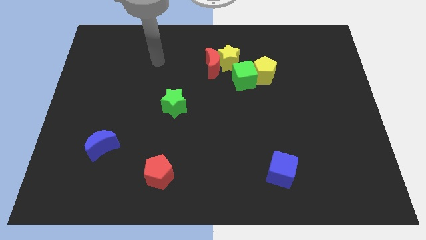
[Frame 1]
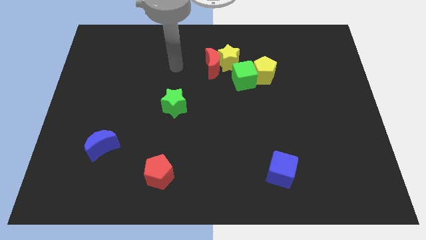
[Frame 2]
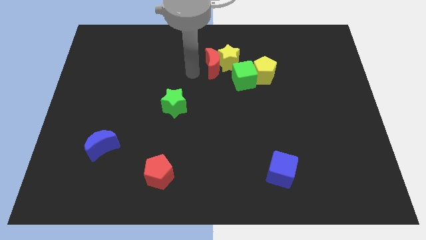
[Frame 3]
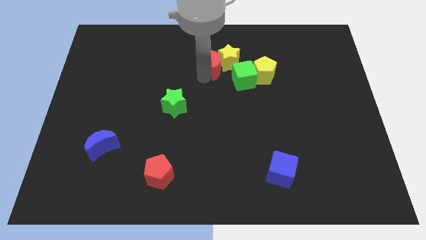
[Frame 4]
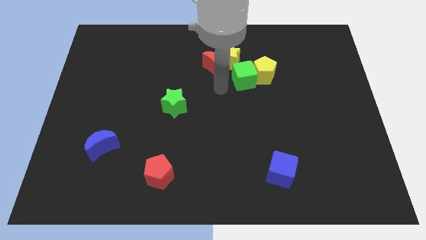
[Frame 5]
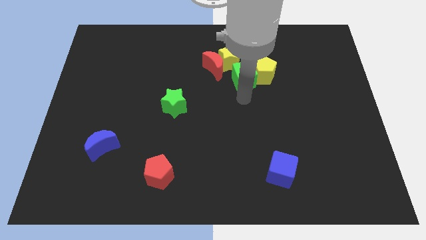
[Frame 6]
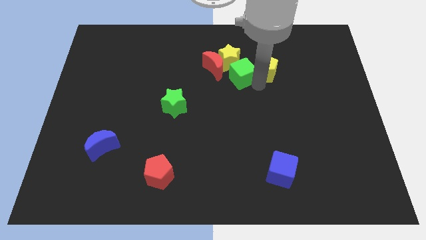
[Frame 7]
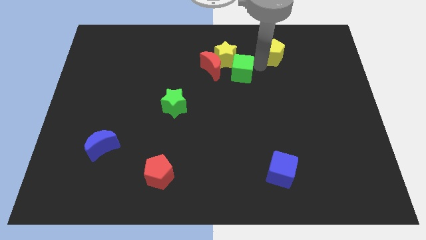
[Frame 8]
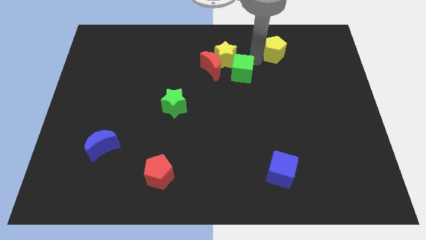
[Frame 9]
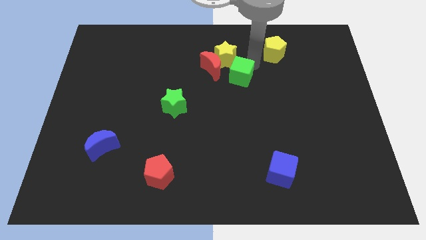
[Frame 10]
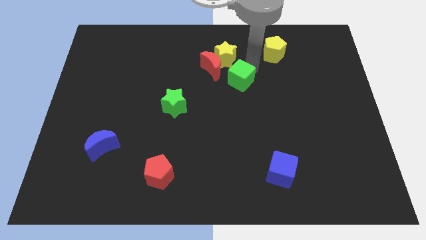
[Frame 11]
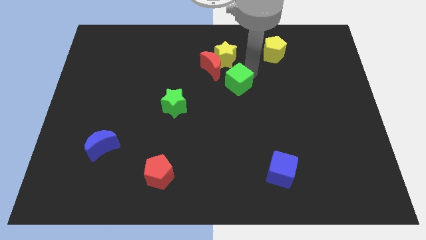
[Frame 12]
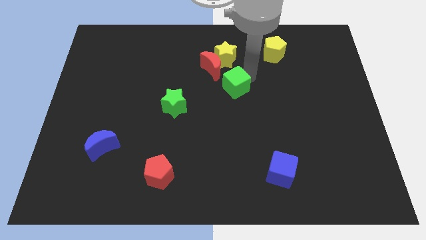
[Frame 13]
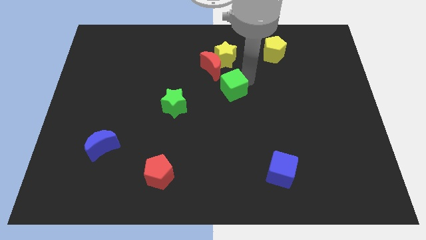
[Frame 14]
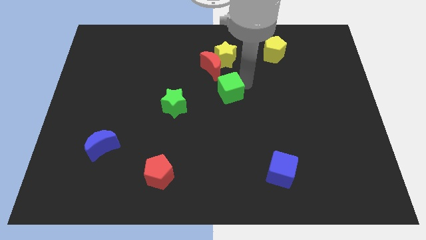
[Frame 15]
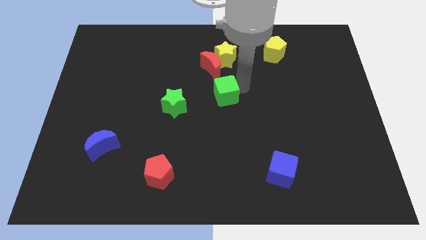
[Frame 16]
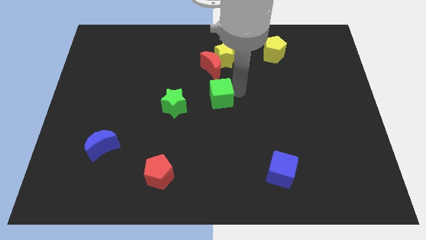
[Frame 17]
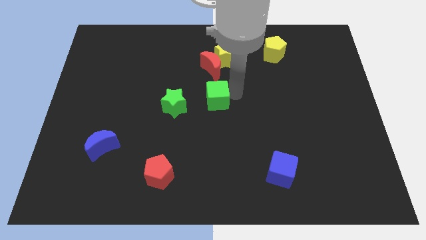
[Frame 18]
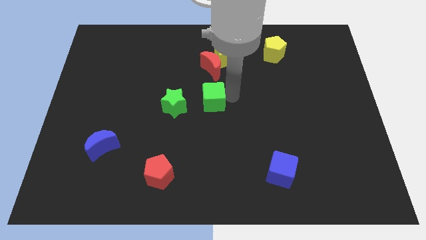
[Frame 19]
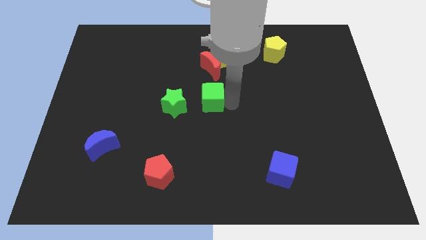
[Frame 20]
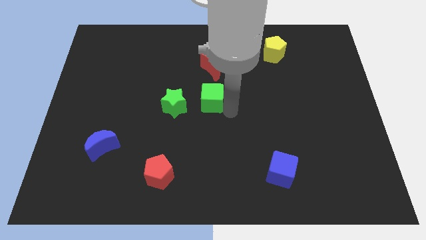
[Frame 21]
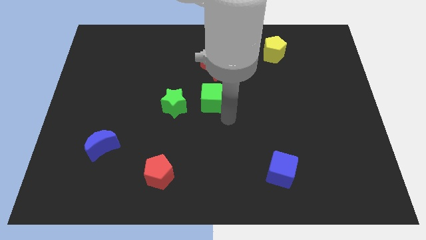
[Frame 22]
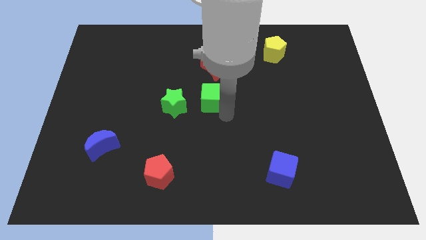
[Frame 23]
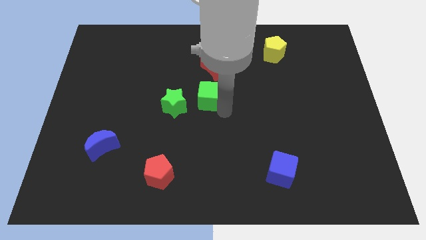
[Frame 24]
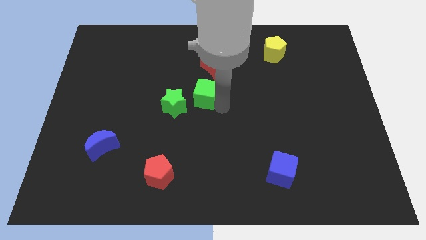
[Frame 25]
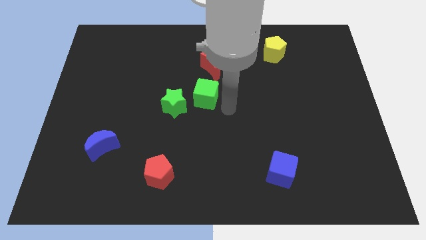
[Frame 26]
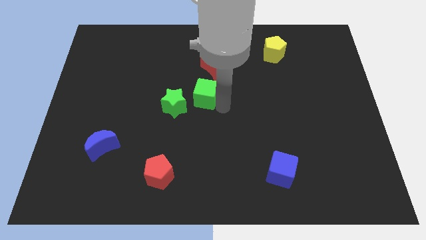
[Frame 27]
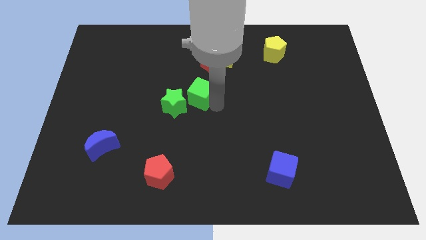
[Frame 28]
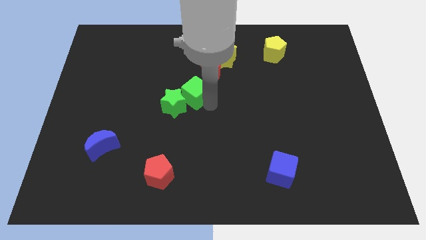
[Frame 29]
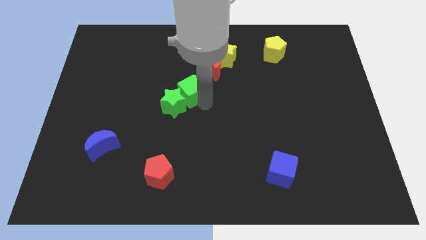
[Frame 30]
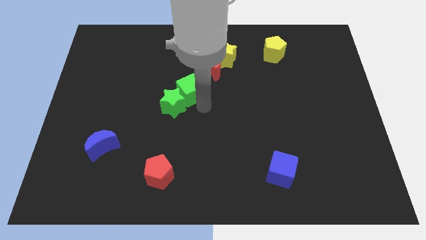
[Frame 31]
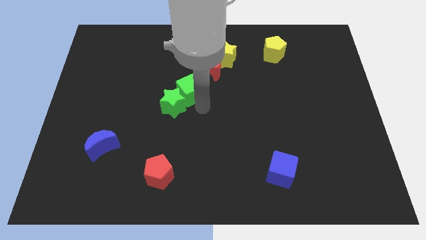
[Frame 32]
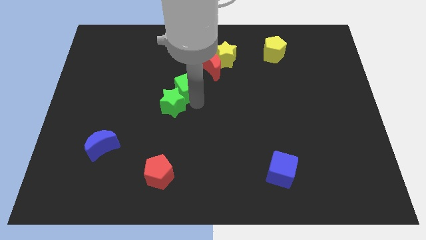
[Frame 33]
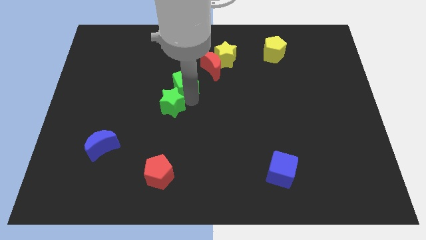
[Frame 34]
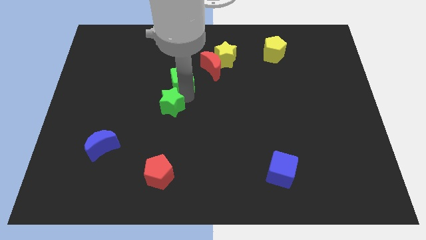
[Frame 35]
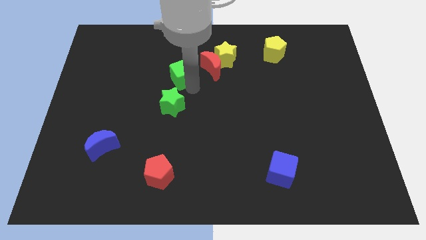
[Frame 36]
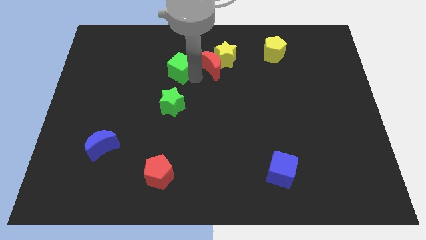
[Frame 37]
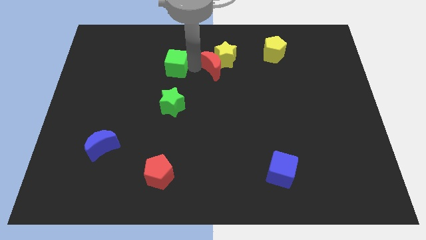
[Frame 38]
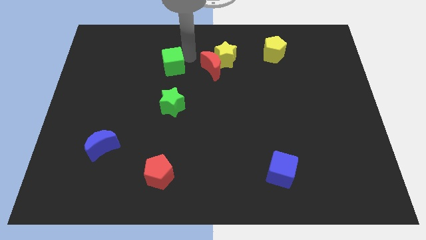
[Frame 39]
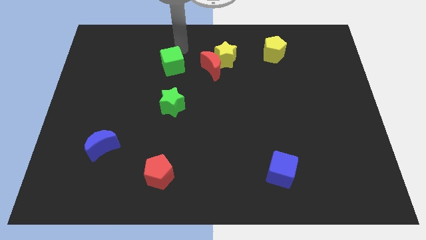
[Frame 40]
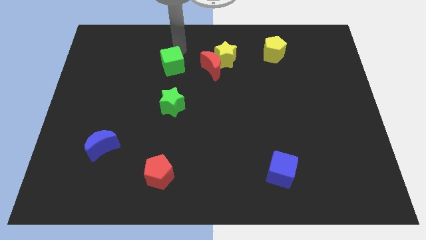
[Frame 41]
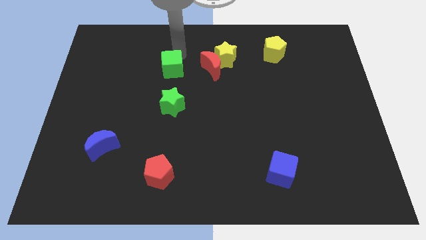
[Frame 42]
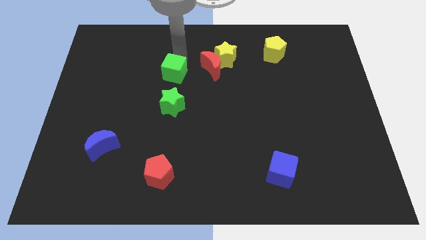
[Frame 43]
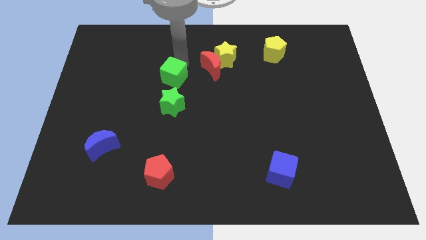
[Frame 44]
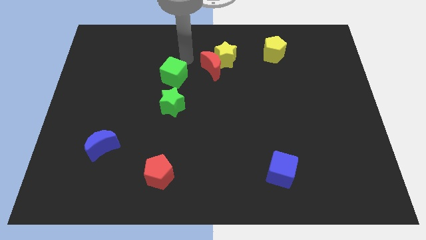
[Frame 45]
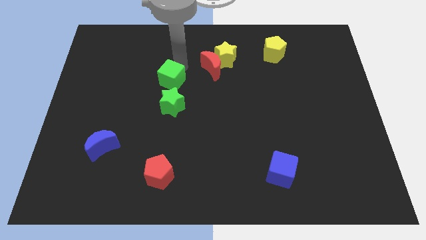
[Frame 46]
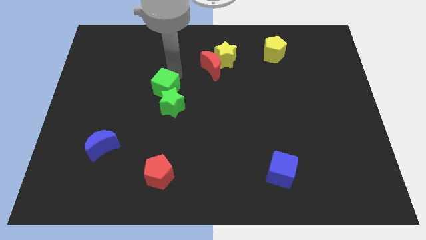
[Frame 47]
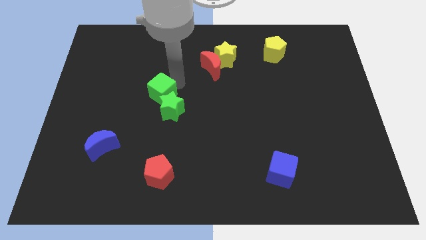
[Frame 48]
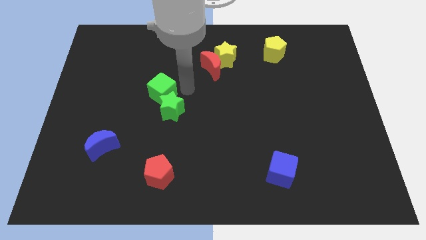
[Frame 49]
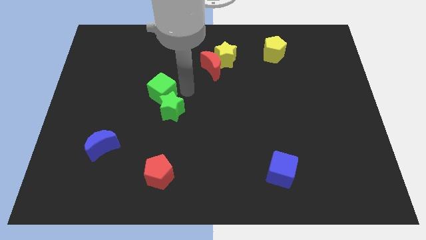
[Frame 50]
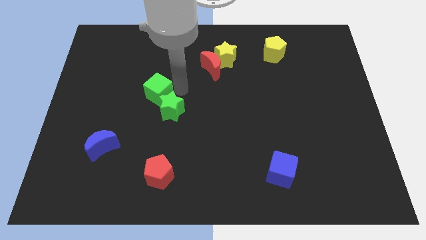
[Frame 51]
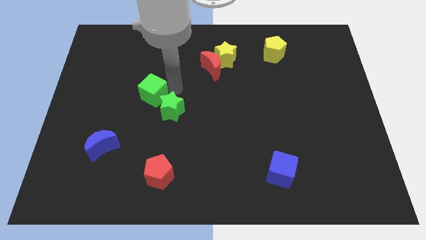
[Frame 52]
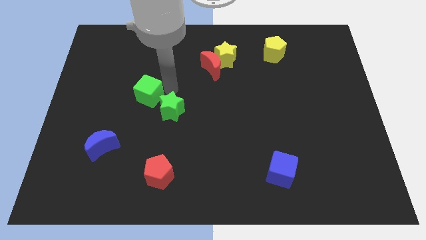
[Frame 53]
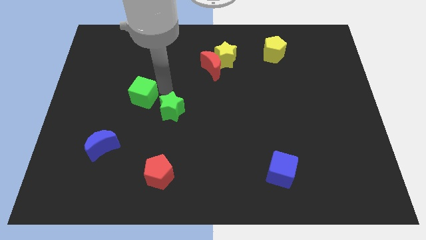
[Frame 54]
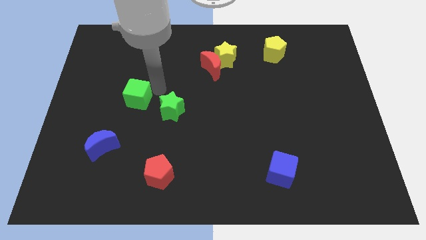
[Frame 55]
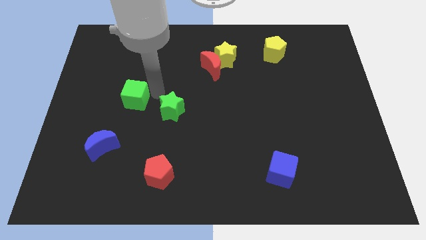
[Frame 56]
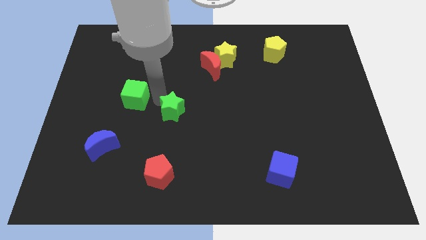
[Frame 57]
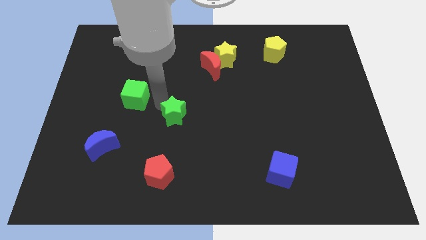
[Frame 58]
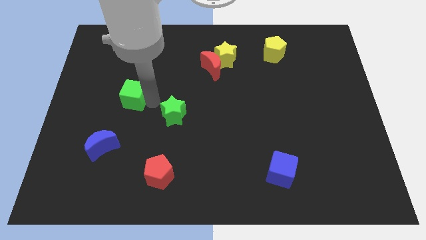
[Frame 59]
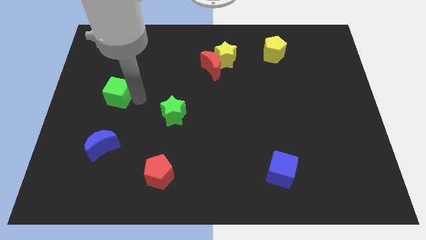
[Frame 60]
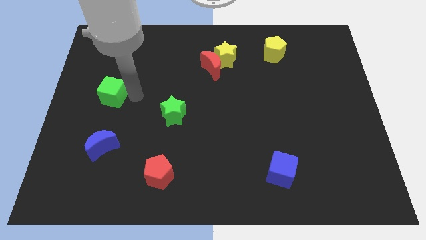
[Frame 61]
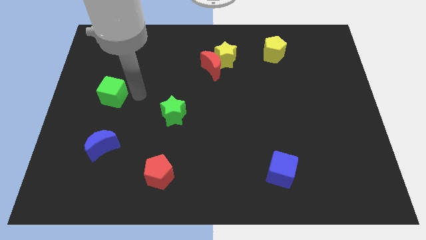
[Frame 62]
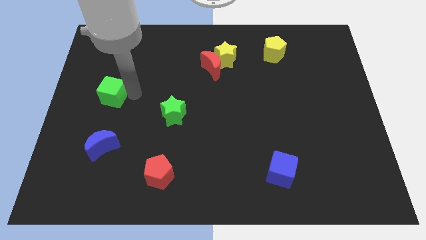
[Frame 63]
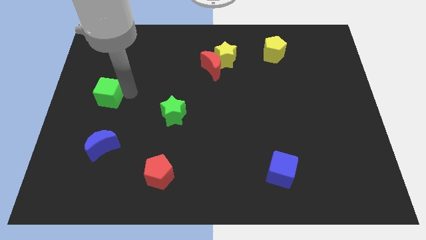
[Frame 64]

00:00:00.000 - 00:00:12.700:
slide the green cube to the left side
